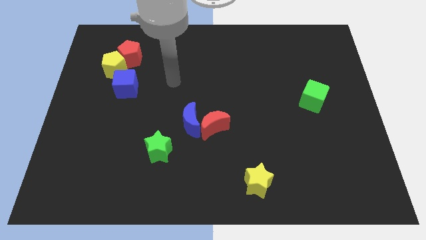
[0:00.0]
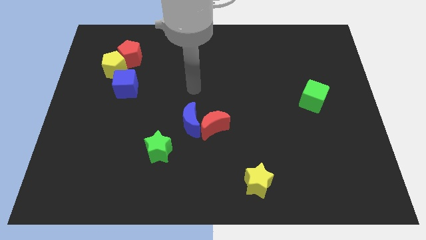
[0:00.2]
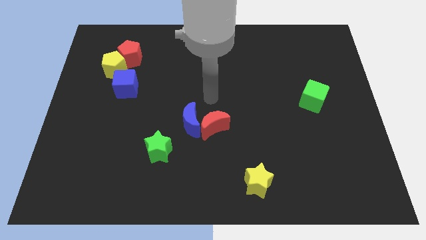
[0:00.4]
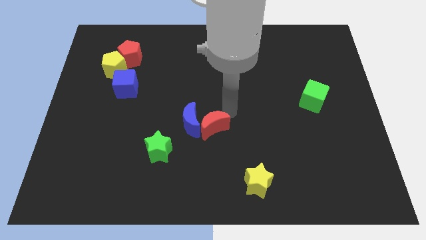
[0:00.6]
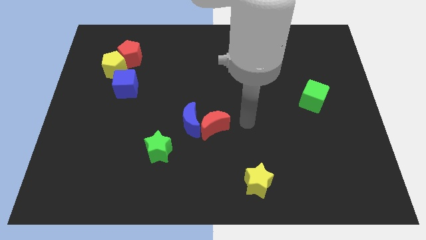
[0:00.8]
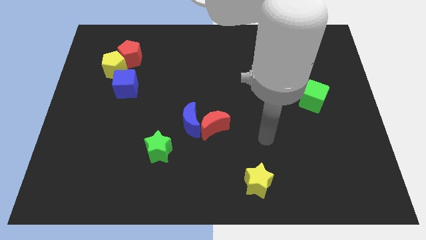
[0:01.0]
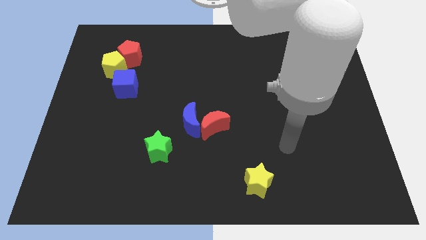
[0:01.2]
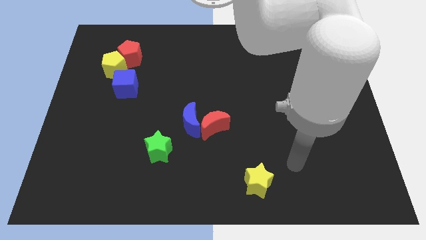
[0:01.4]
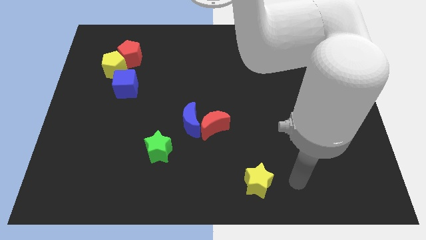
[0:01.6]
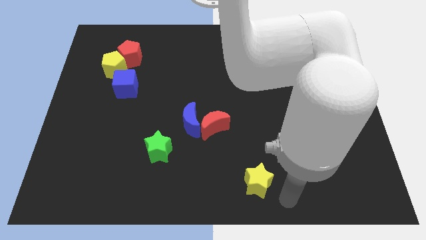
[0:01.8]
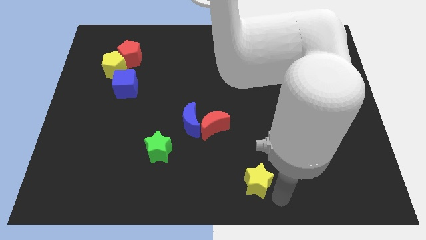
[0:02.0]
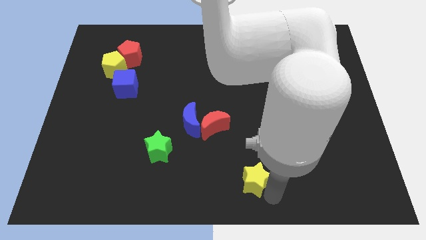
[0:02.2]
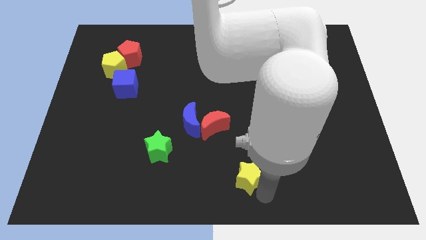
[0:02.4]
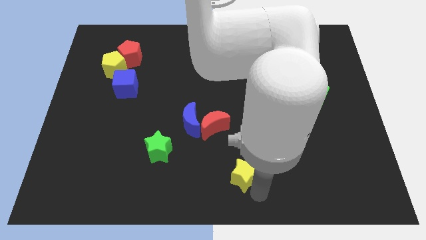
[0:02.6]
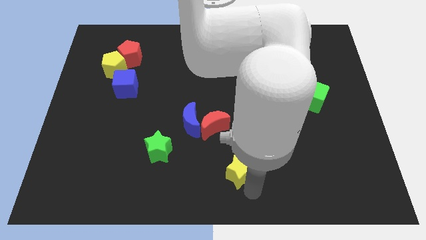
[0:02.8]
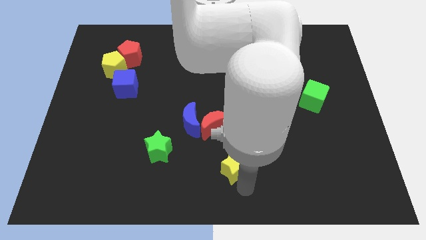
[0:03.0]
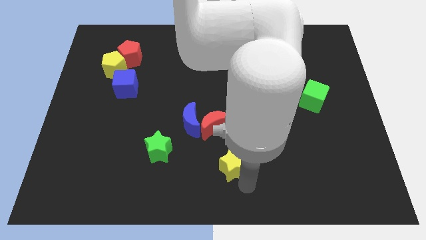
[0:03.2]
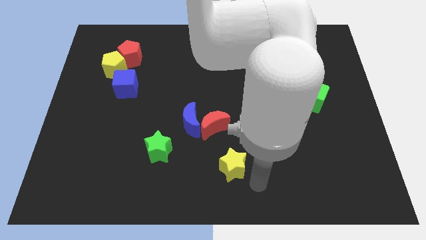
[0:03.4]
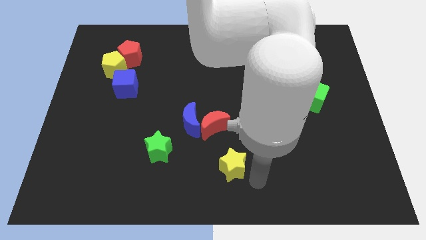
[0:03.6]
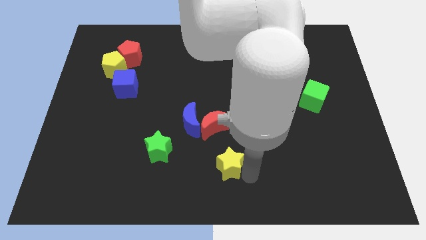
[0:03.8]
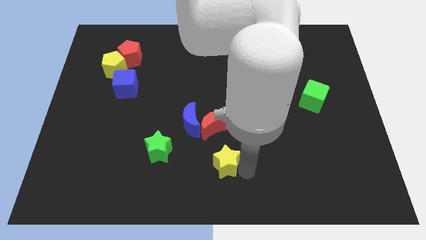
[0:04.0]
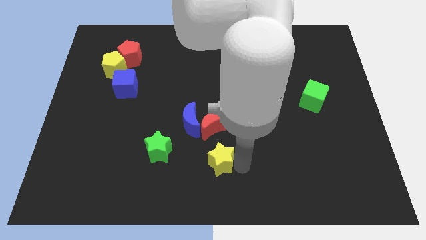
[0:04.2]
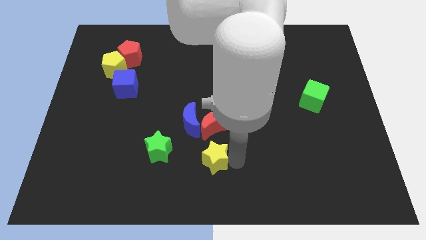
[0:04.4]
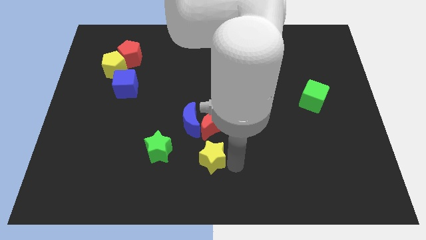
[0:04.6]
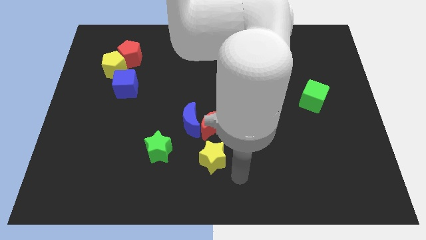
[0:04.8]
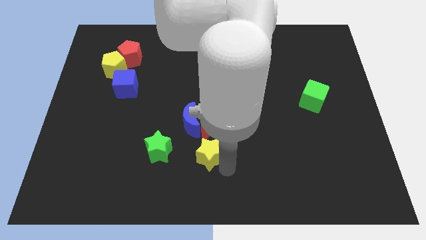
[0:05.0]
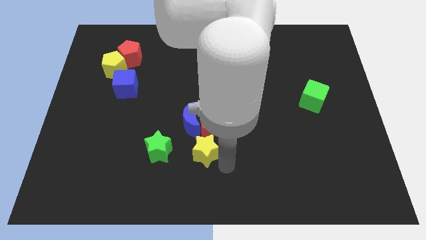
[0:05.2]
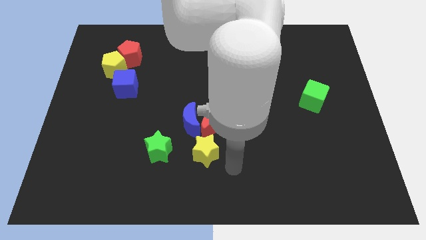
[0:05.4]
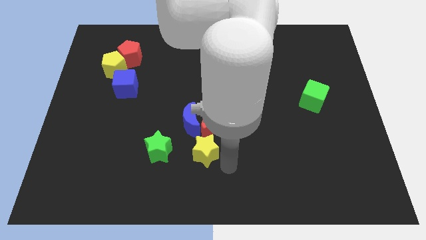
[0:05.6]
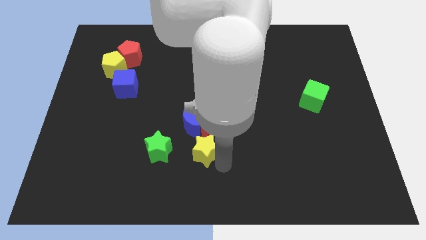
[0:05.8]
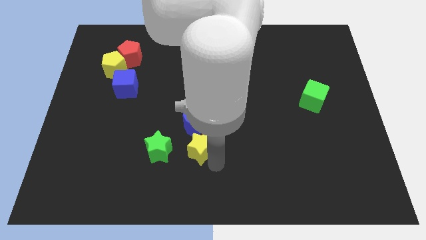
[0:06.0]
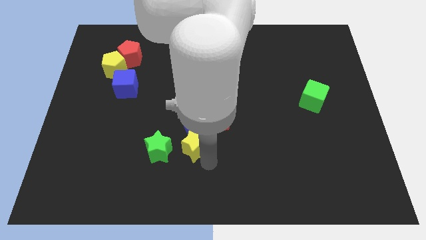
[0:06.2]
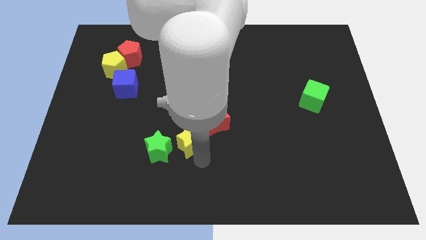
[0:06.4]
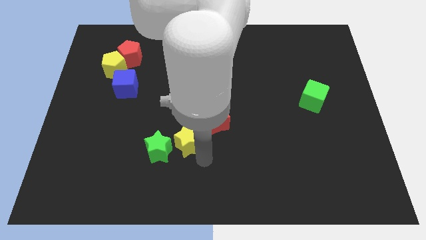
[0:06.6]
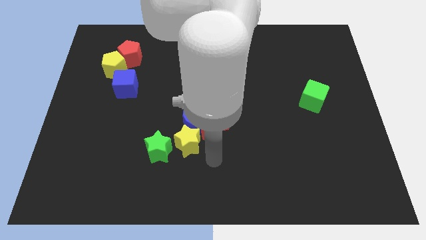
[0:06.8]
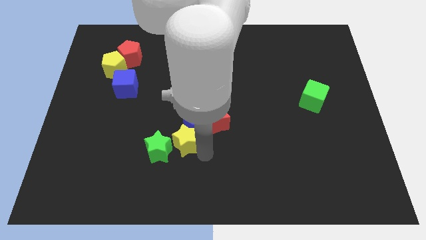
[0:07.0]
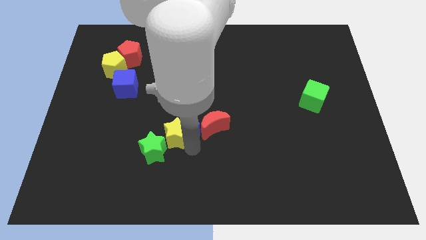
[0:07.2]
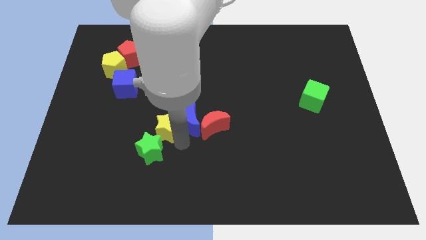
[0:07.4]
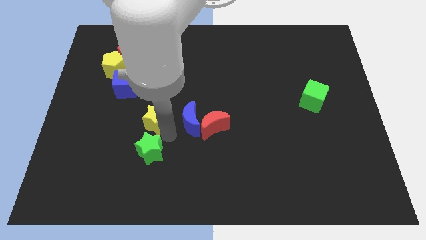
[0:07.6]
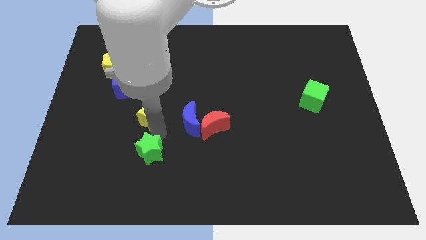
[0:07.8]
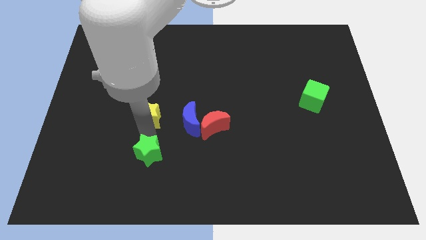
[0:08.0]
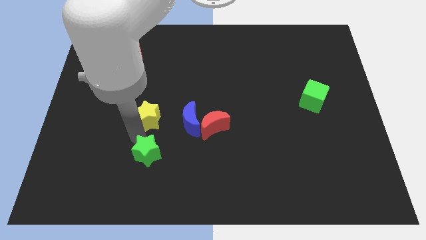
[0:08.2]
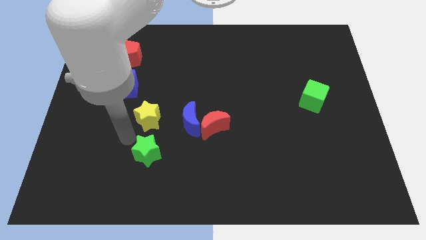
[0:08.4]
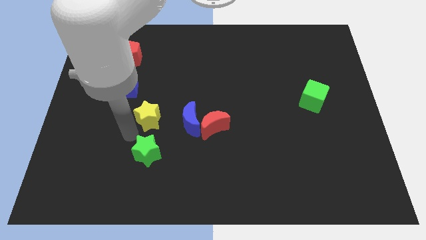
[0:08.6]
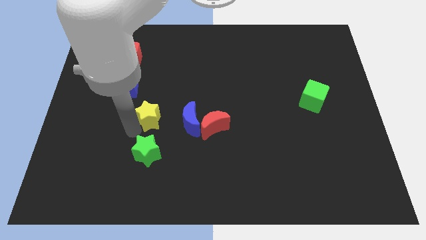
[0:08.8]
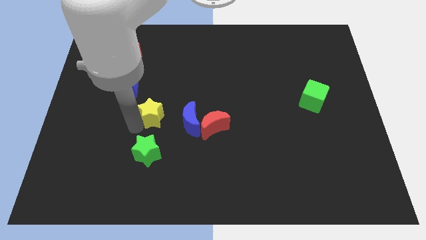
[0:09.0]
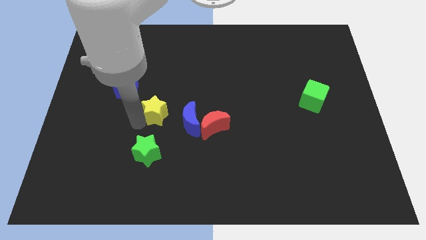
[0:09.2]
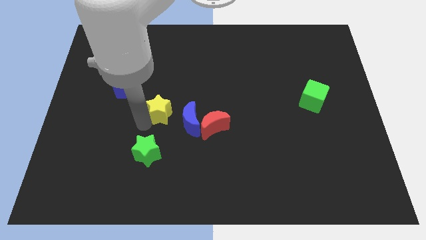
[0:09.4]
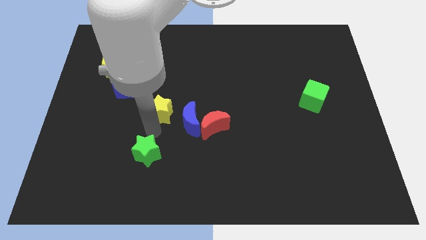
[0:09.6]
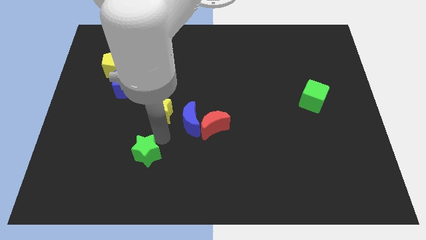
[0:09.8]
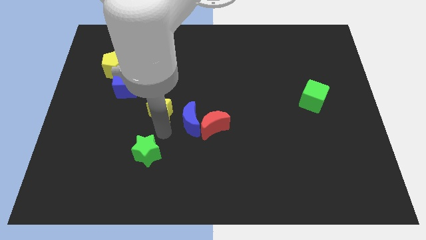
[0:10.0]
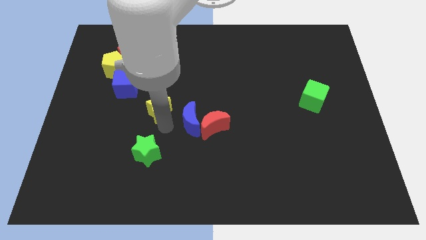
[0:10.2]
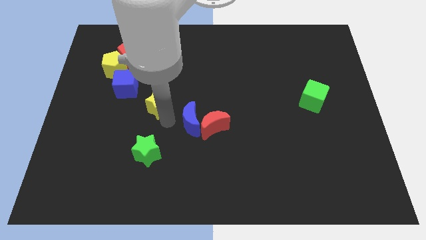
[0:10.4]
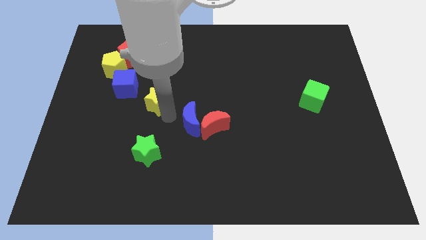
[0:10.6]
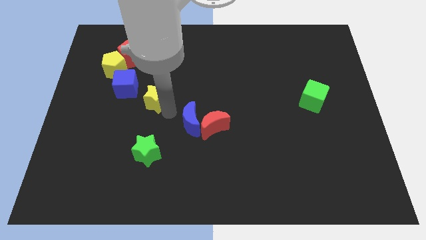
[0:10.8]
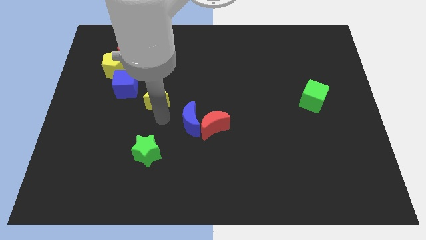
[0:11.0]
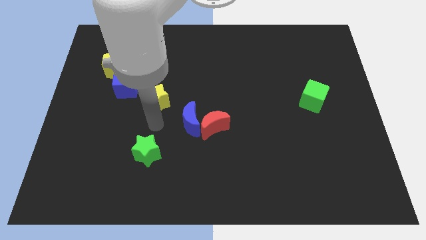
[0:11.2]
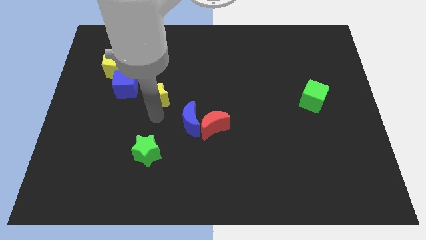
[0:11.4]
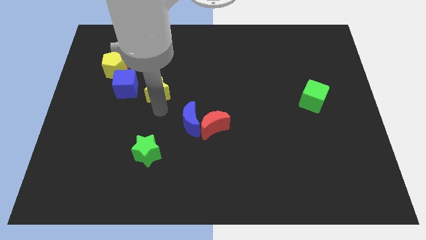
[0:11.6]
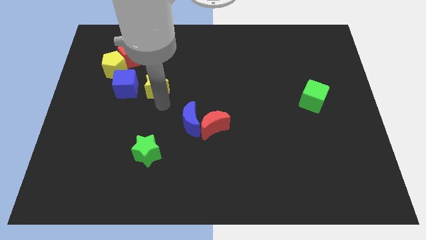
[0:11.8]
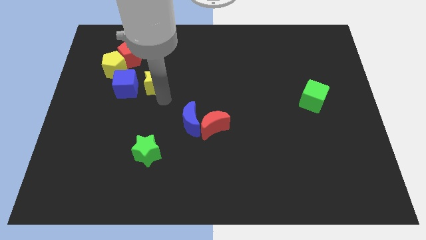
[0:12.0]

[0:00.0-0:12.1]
move the yellow star diagonally down and to the right of the red pentagon
